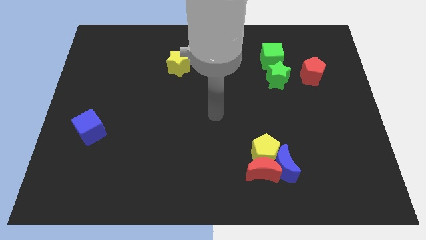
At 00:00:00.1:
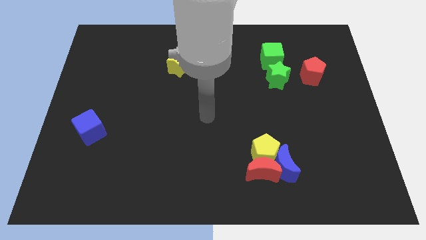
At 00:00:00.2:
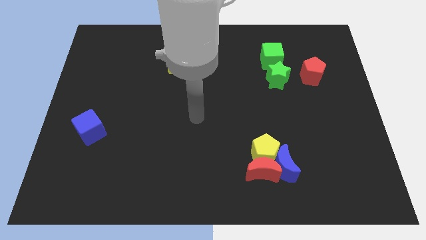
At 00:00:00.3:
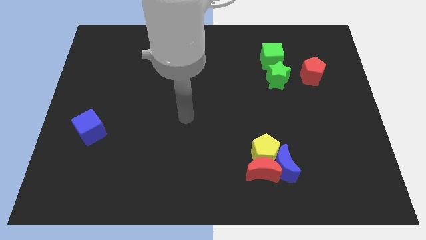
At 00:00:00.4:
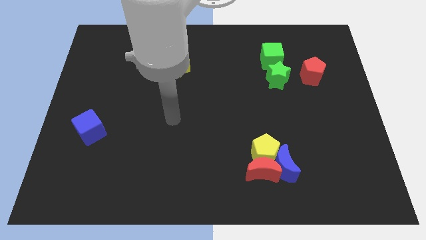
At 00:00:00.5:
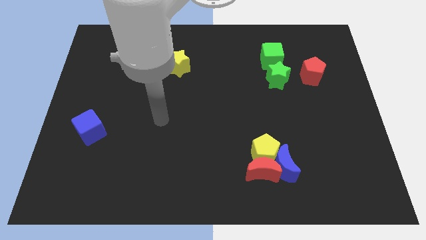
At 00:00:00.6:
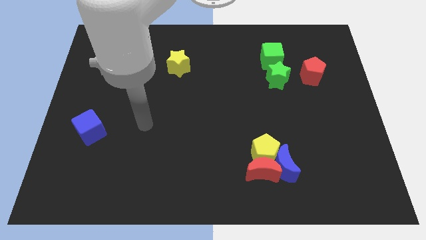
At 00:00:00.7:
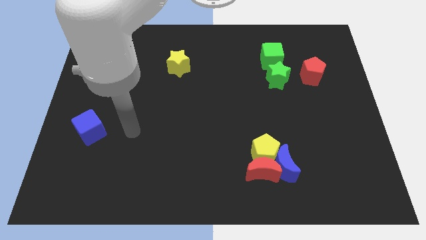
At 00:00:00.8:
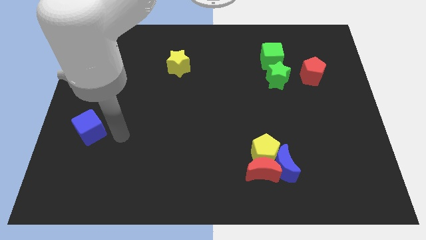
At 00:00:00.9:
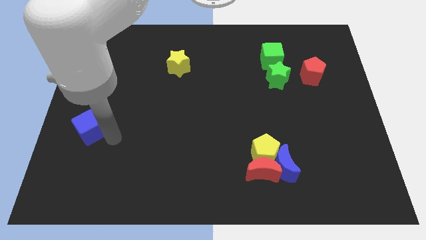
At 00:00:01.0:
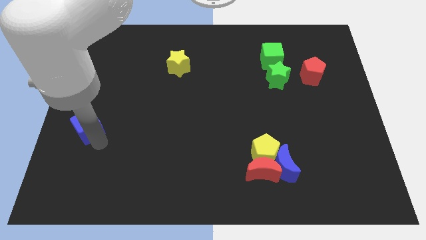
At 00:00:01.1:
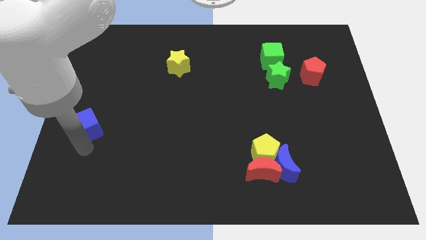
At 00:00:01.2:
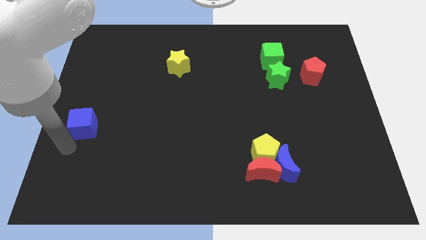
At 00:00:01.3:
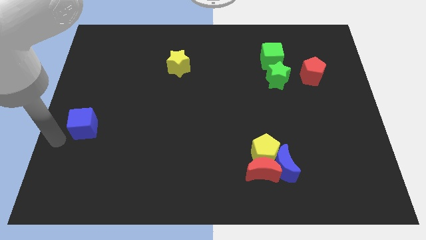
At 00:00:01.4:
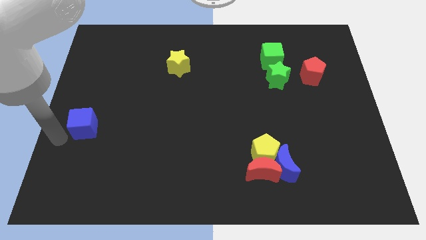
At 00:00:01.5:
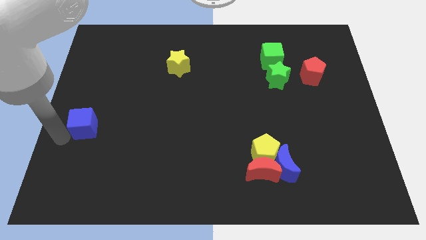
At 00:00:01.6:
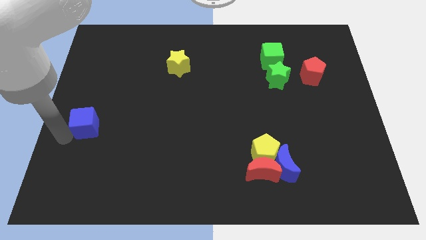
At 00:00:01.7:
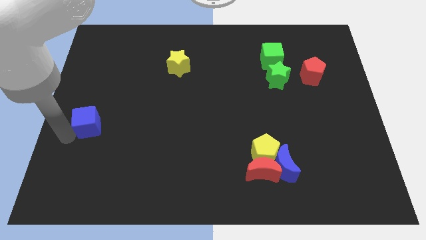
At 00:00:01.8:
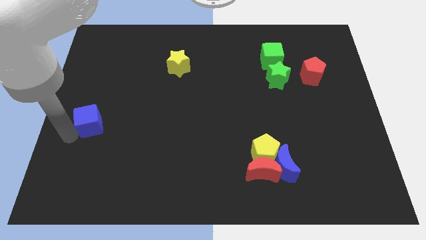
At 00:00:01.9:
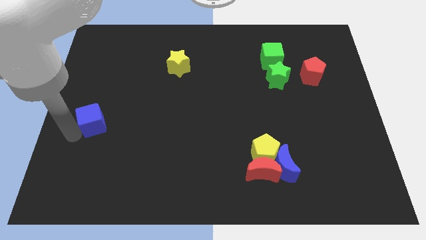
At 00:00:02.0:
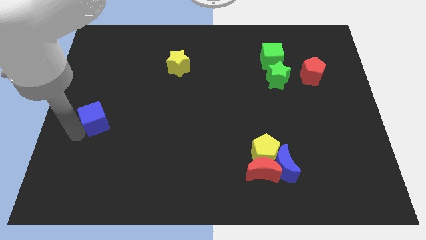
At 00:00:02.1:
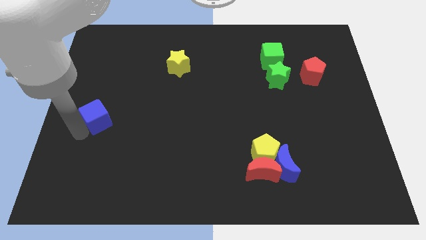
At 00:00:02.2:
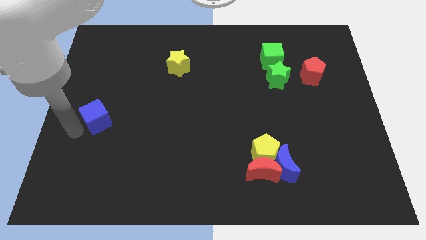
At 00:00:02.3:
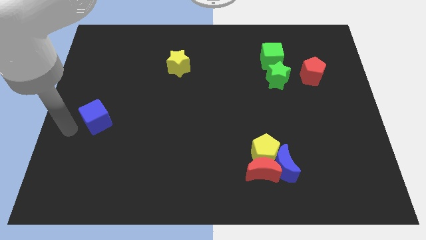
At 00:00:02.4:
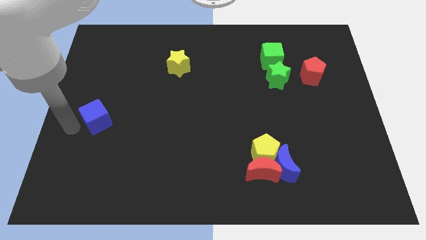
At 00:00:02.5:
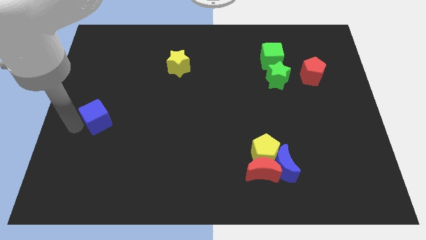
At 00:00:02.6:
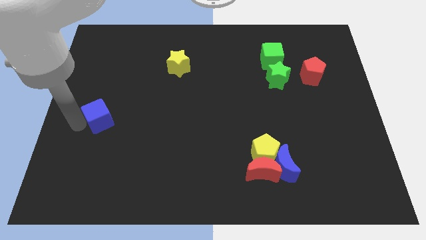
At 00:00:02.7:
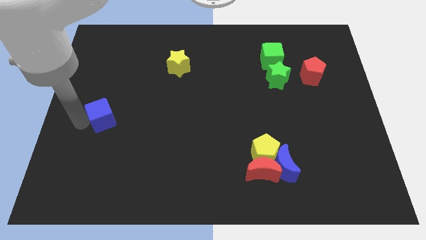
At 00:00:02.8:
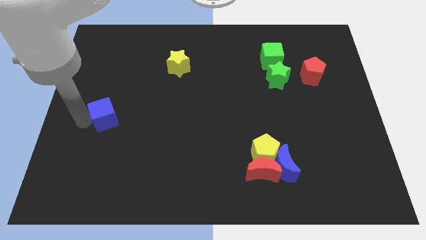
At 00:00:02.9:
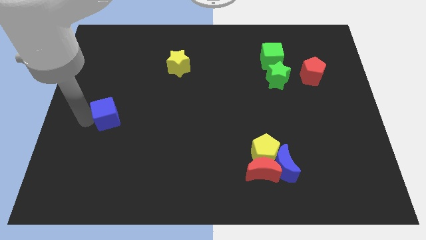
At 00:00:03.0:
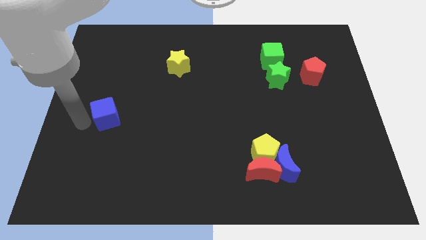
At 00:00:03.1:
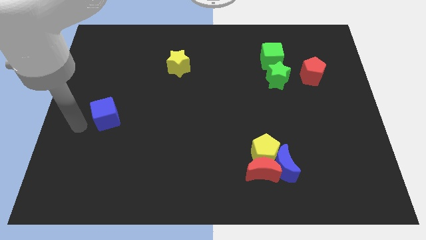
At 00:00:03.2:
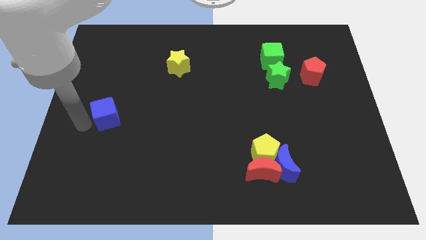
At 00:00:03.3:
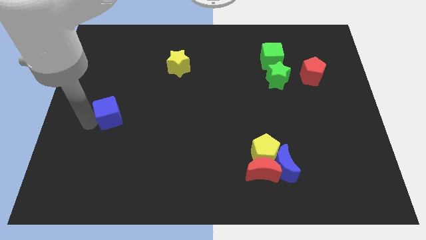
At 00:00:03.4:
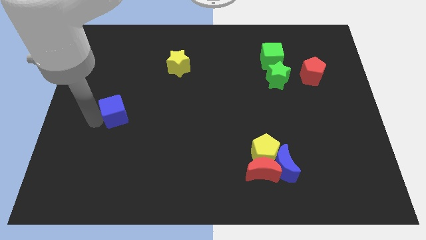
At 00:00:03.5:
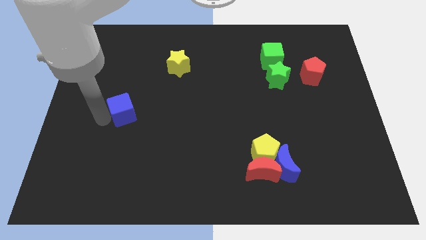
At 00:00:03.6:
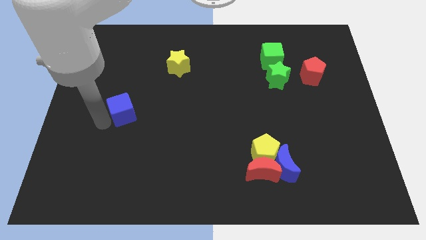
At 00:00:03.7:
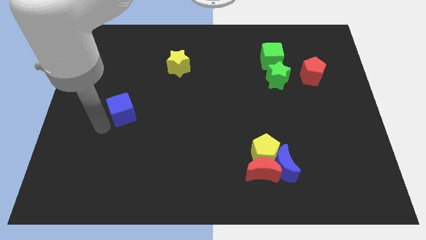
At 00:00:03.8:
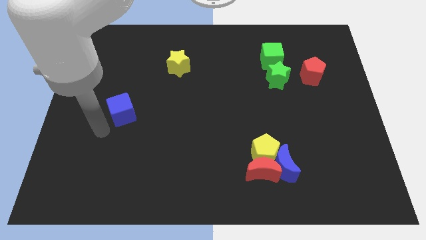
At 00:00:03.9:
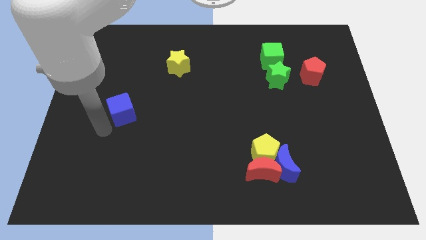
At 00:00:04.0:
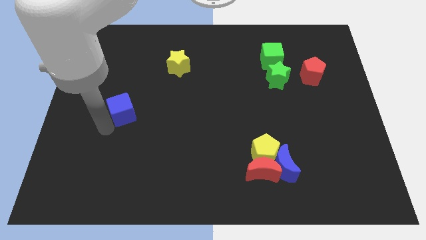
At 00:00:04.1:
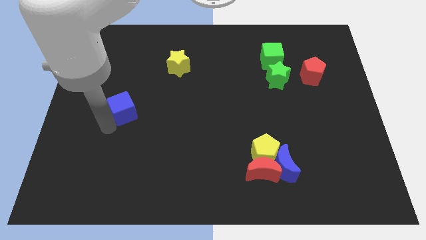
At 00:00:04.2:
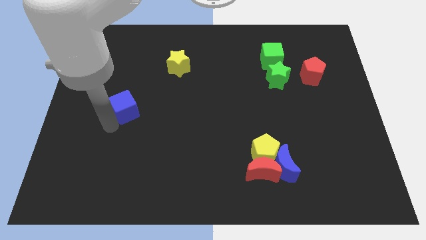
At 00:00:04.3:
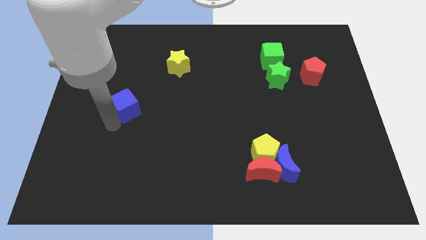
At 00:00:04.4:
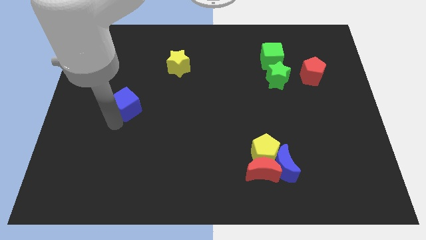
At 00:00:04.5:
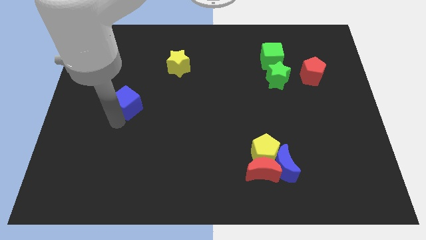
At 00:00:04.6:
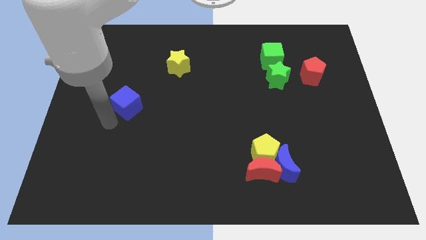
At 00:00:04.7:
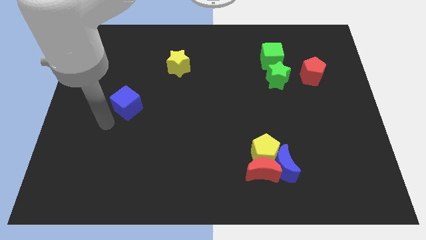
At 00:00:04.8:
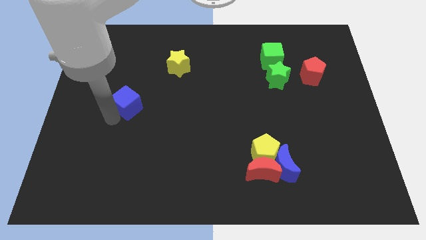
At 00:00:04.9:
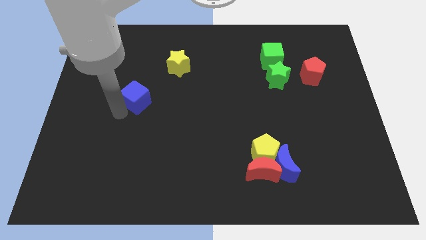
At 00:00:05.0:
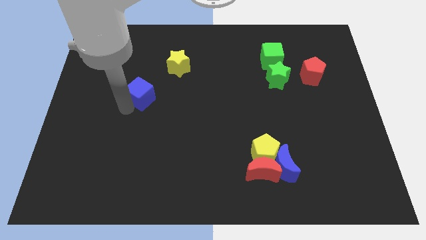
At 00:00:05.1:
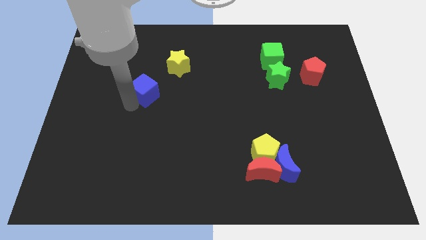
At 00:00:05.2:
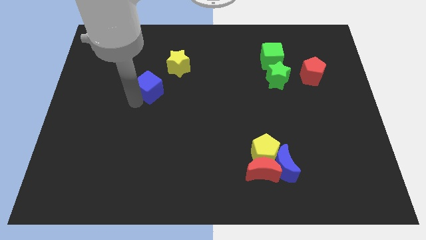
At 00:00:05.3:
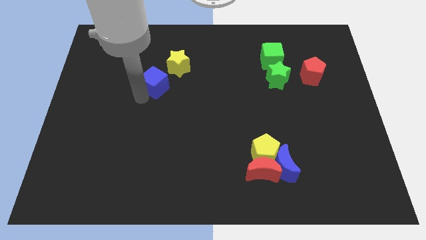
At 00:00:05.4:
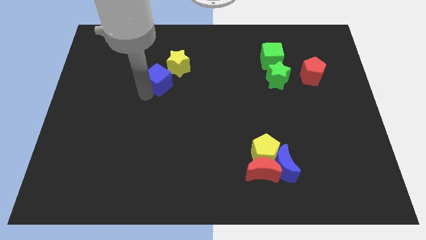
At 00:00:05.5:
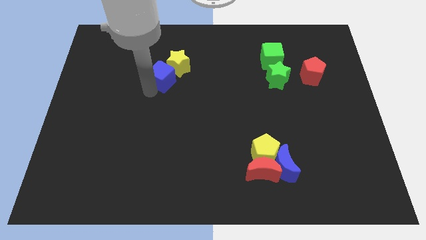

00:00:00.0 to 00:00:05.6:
push the blue cube next to the yellow star

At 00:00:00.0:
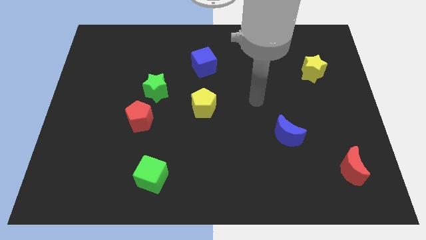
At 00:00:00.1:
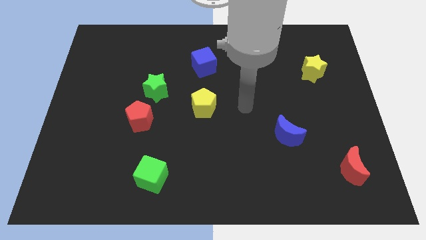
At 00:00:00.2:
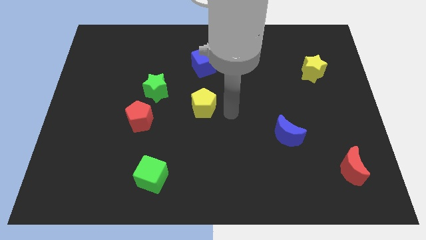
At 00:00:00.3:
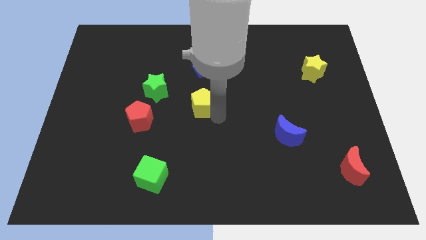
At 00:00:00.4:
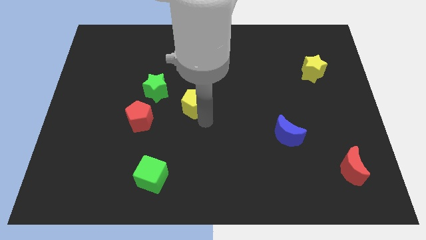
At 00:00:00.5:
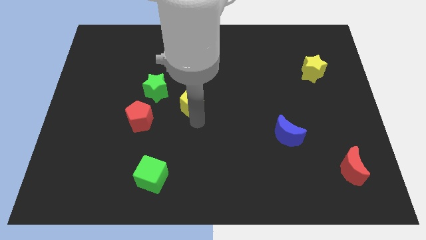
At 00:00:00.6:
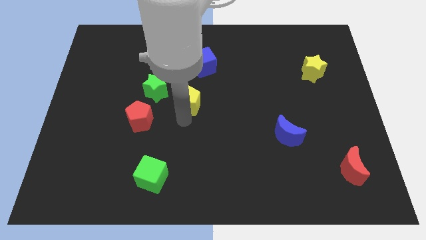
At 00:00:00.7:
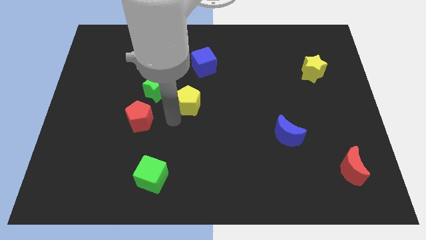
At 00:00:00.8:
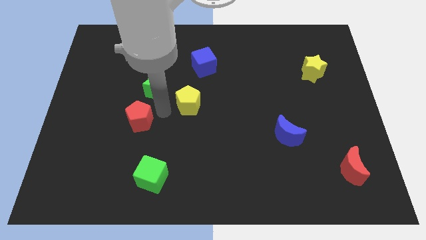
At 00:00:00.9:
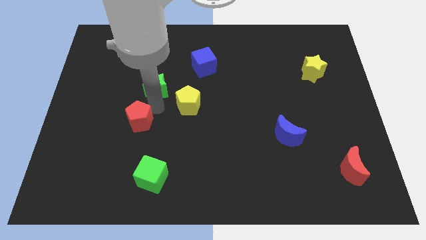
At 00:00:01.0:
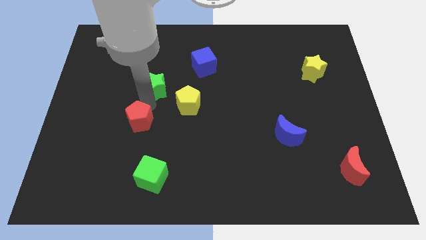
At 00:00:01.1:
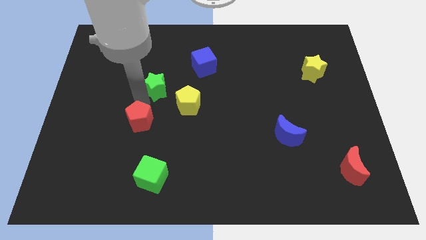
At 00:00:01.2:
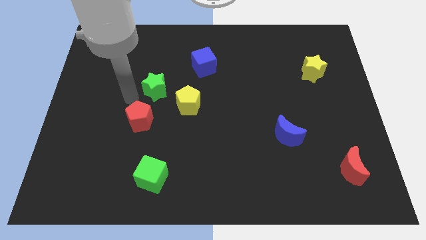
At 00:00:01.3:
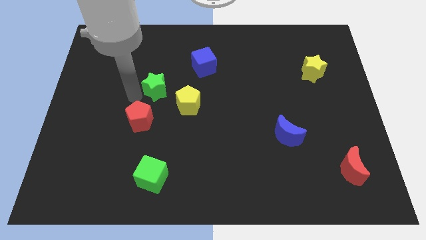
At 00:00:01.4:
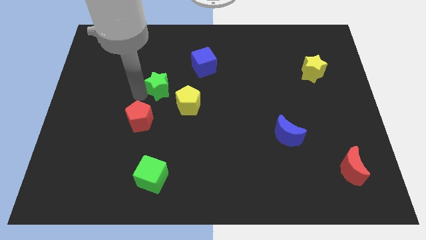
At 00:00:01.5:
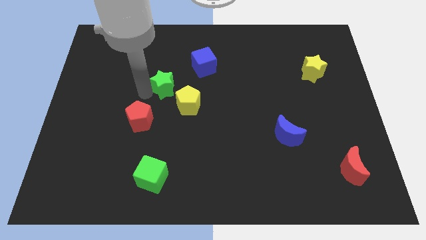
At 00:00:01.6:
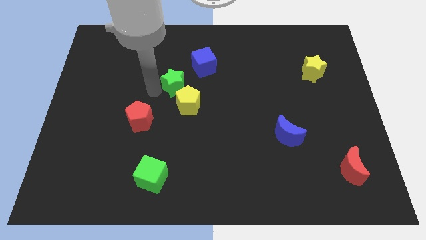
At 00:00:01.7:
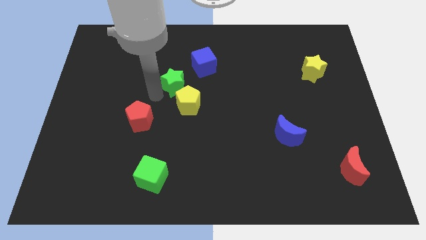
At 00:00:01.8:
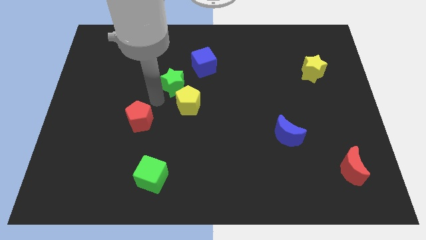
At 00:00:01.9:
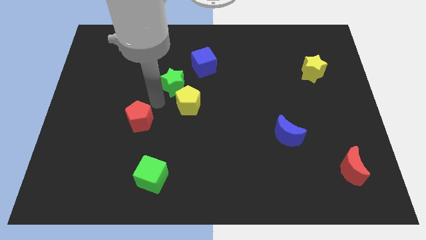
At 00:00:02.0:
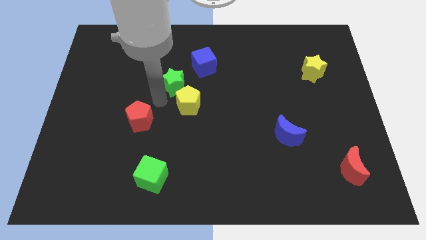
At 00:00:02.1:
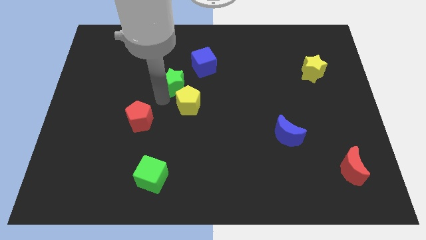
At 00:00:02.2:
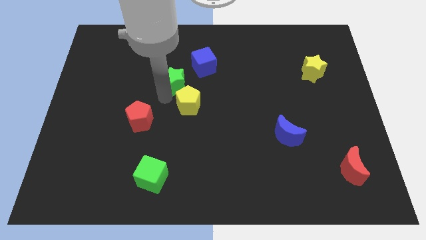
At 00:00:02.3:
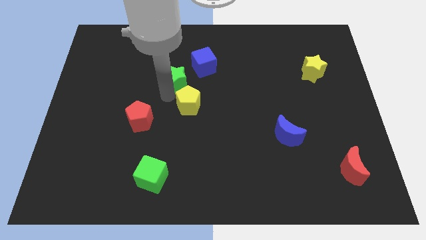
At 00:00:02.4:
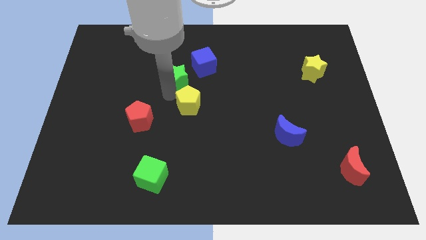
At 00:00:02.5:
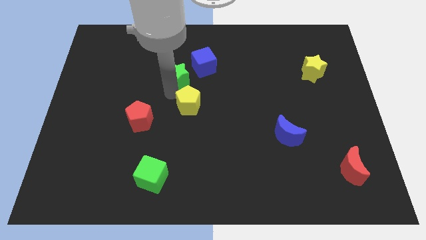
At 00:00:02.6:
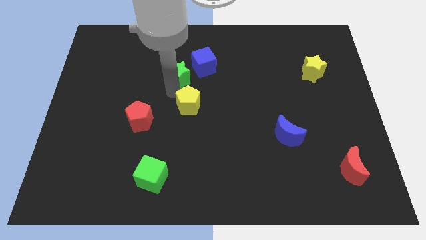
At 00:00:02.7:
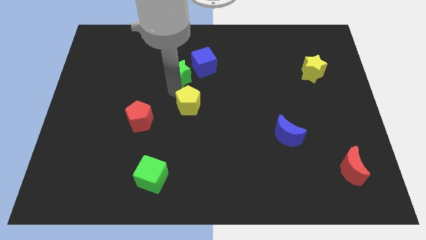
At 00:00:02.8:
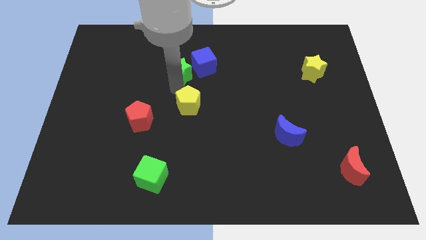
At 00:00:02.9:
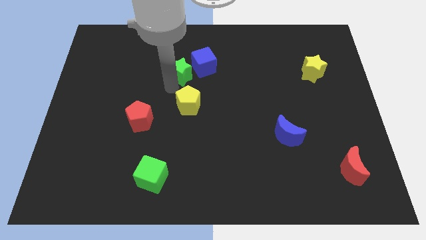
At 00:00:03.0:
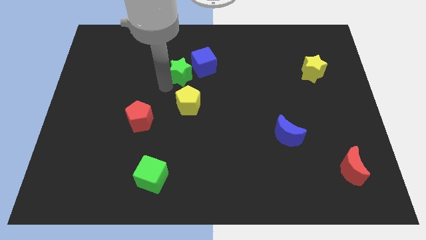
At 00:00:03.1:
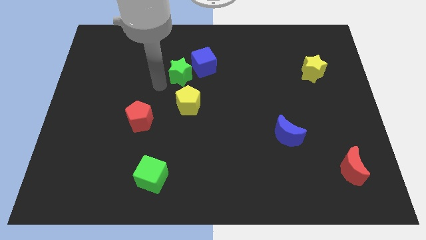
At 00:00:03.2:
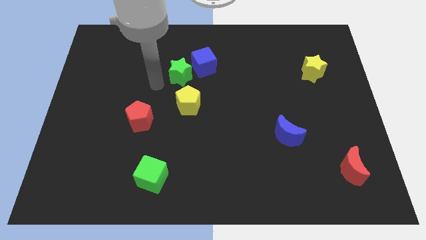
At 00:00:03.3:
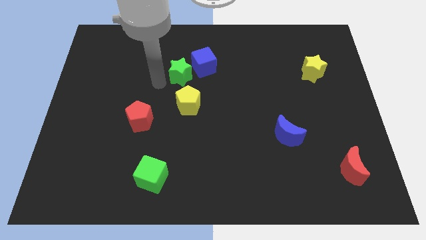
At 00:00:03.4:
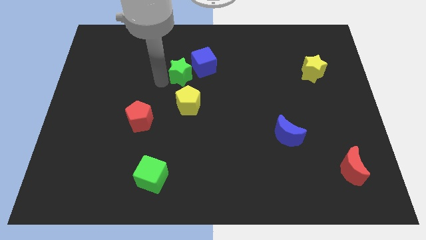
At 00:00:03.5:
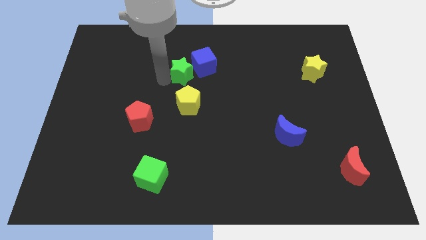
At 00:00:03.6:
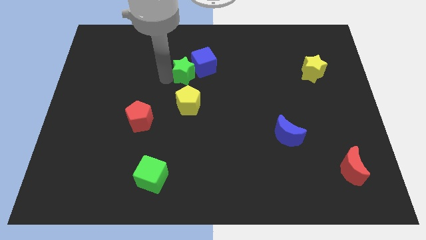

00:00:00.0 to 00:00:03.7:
put the green star close to the blue cube
